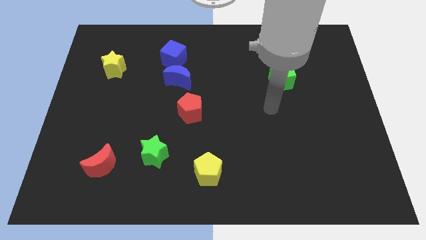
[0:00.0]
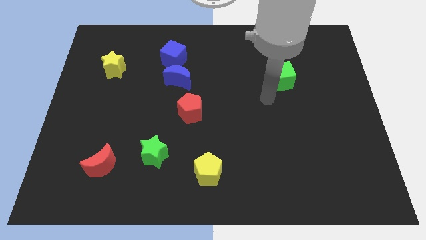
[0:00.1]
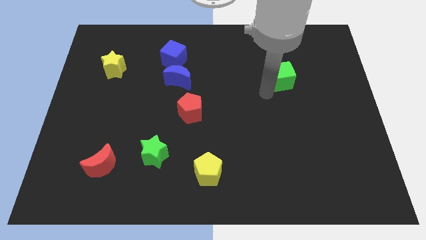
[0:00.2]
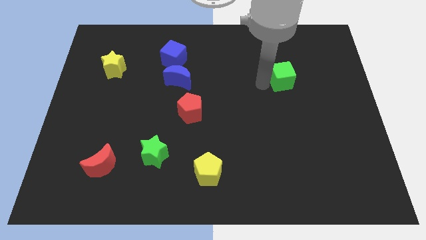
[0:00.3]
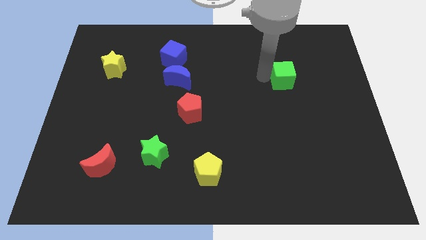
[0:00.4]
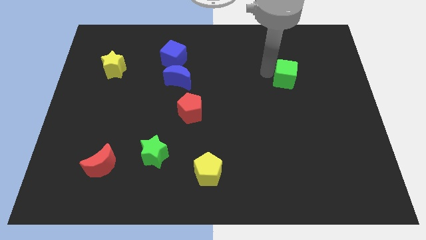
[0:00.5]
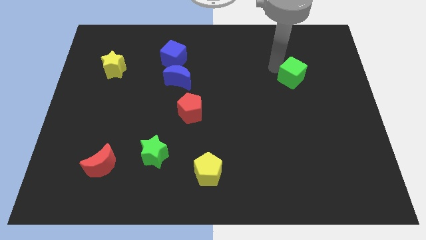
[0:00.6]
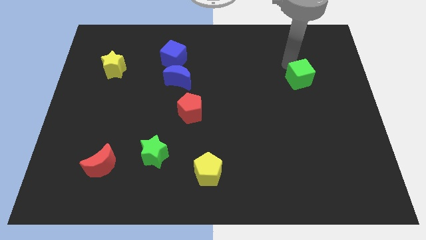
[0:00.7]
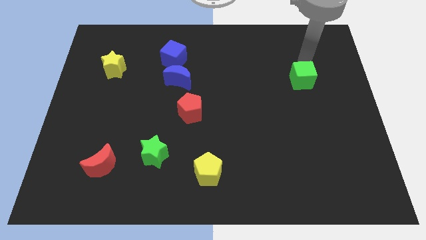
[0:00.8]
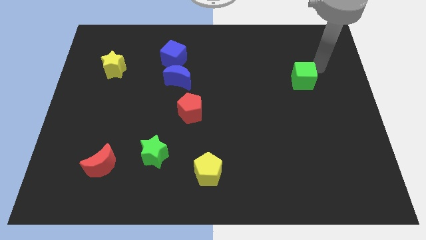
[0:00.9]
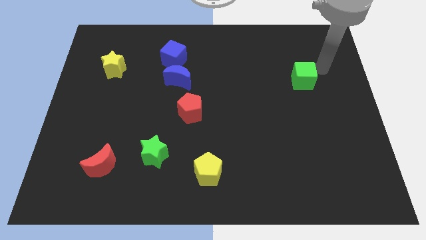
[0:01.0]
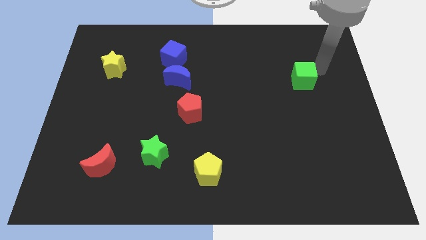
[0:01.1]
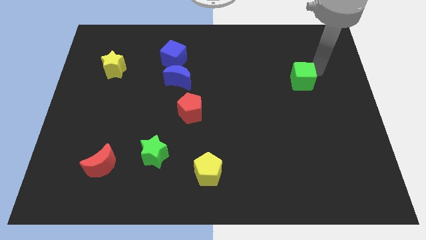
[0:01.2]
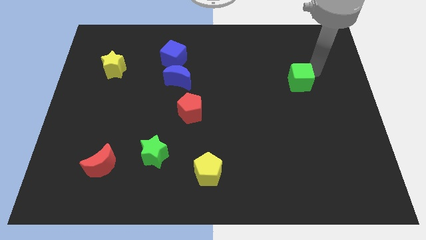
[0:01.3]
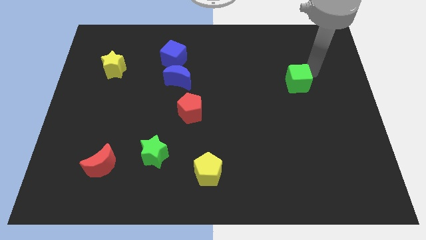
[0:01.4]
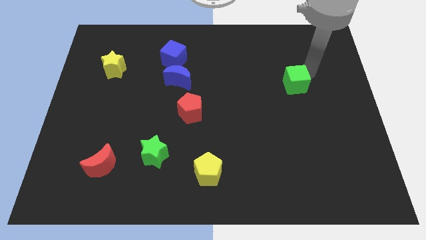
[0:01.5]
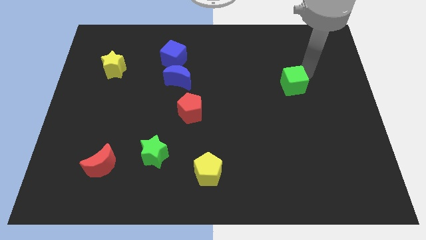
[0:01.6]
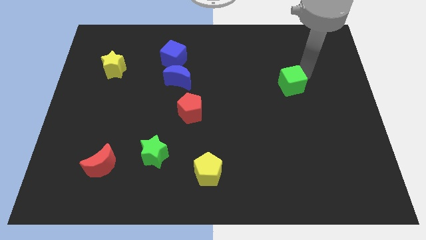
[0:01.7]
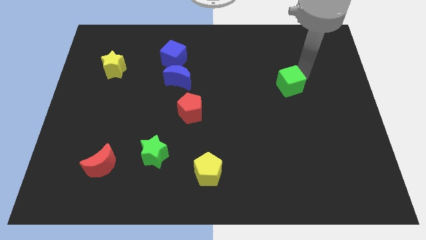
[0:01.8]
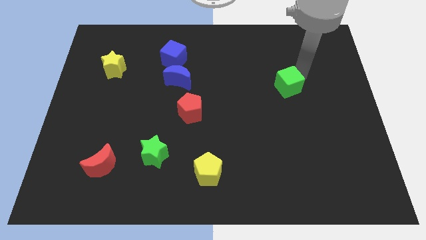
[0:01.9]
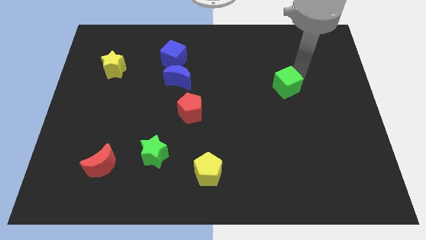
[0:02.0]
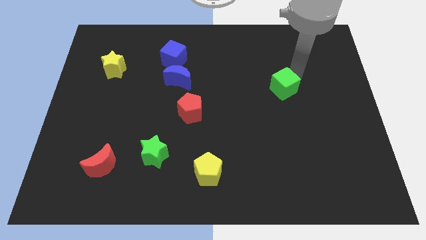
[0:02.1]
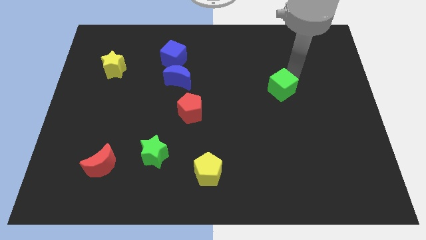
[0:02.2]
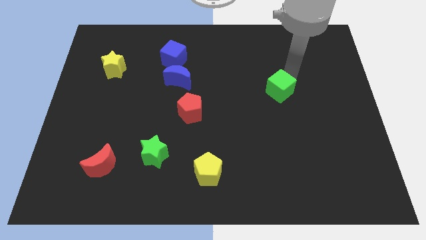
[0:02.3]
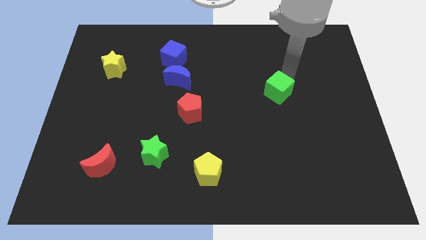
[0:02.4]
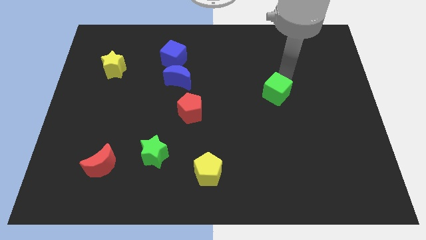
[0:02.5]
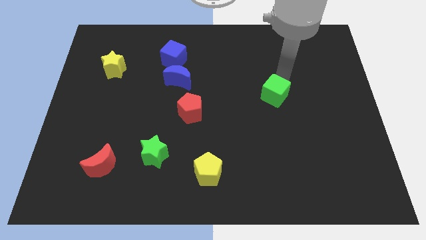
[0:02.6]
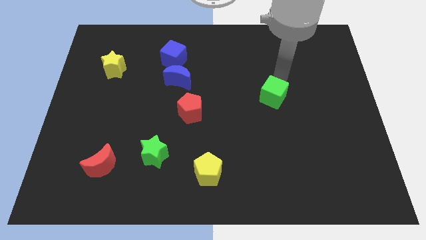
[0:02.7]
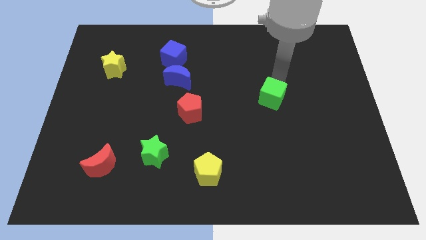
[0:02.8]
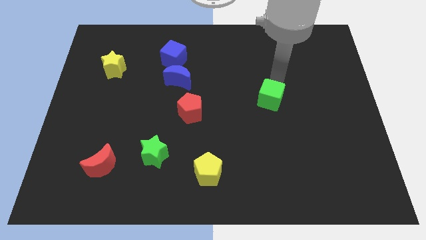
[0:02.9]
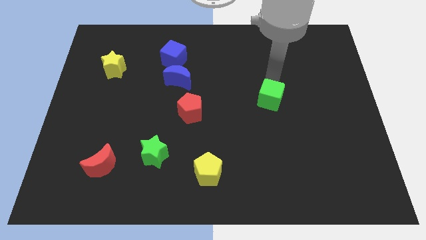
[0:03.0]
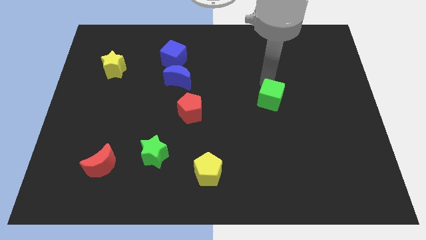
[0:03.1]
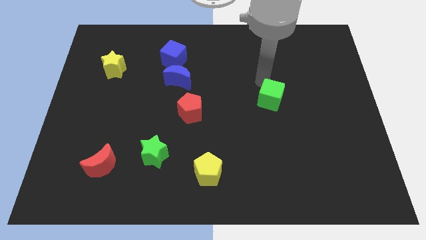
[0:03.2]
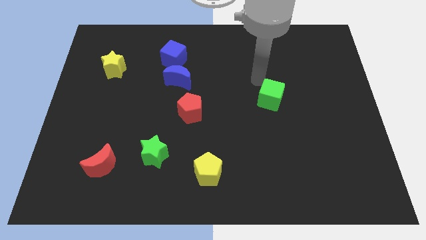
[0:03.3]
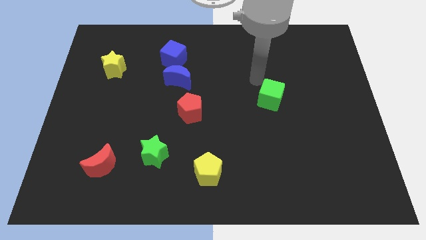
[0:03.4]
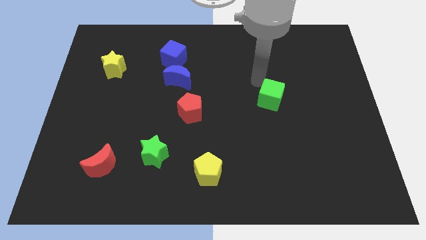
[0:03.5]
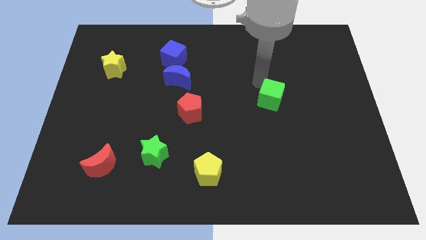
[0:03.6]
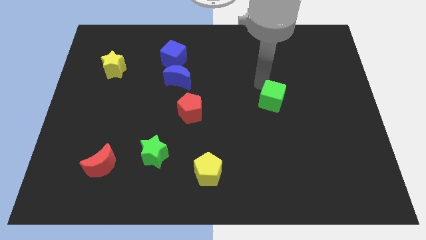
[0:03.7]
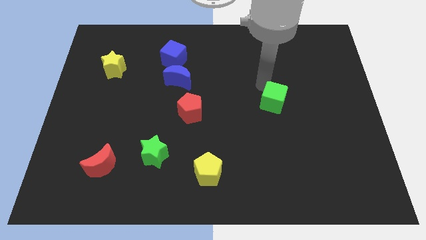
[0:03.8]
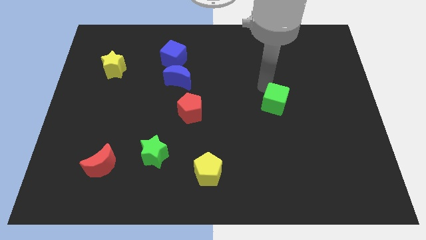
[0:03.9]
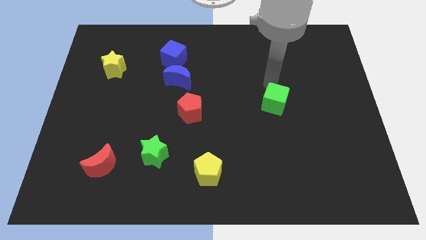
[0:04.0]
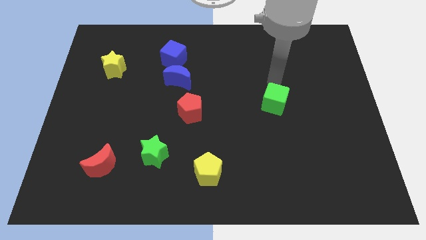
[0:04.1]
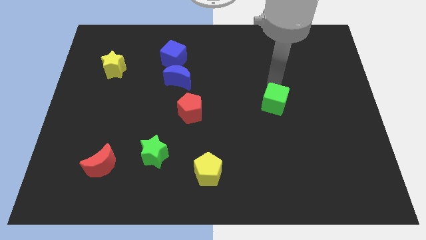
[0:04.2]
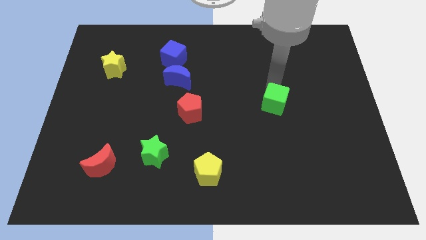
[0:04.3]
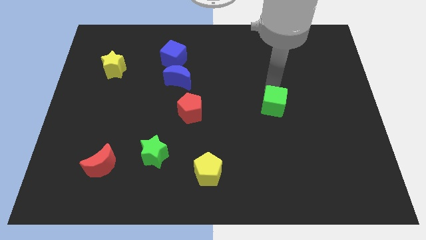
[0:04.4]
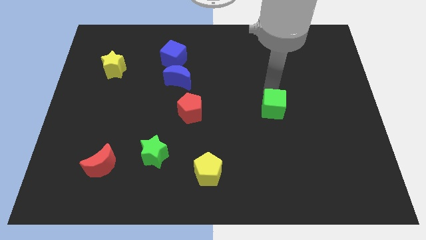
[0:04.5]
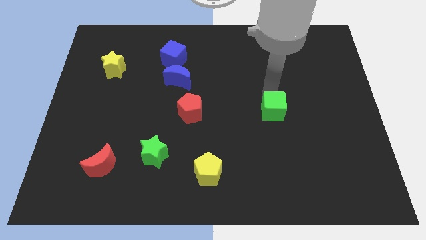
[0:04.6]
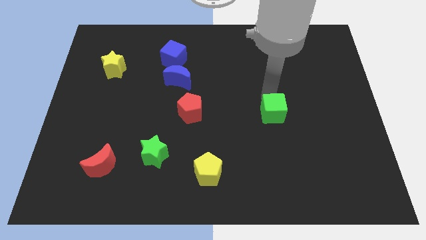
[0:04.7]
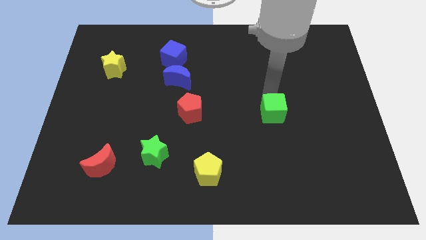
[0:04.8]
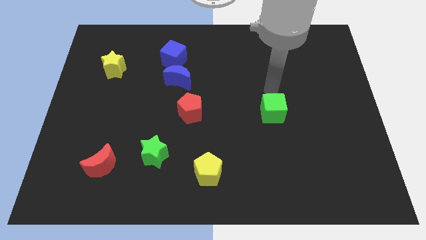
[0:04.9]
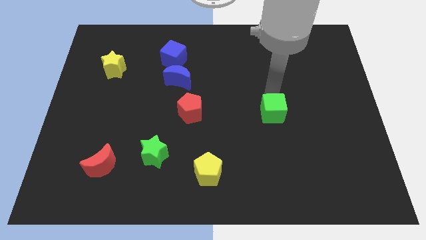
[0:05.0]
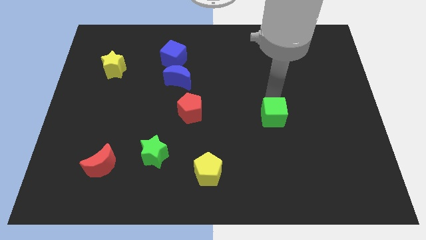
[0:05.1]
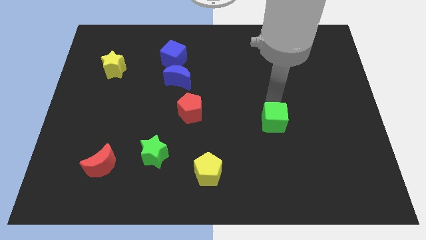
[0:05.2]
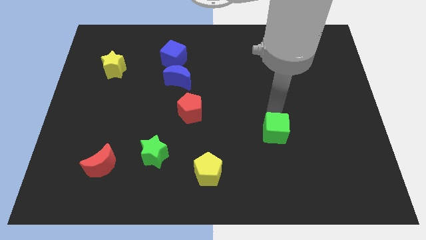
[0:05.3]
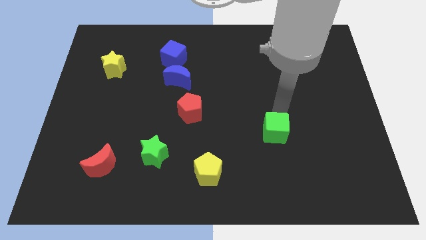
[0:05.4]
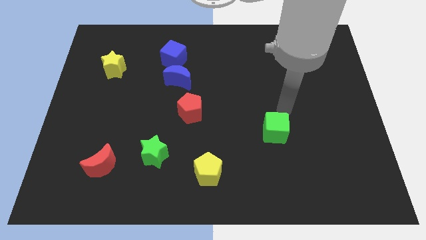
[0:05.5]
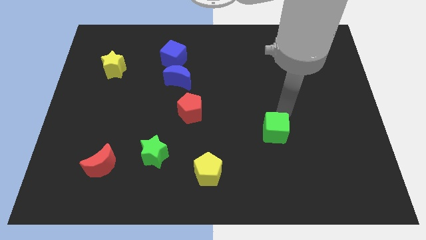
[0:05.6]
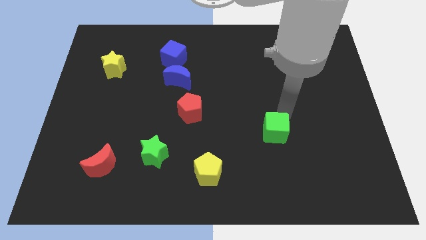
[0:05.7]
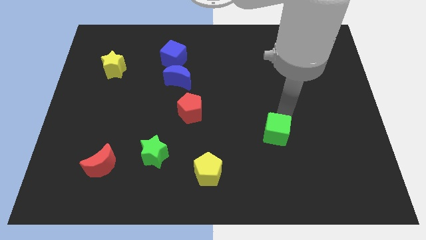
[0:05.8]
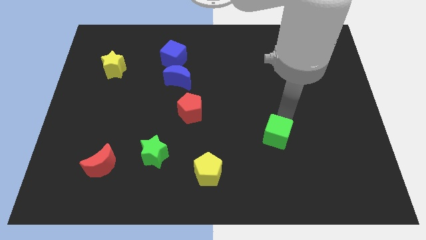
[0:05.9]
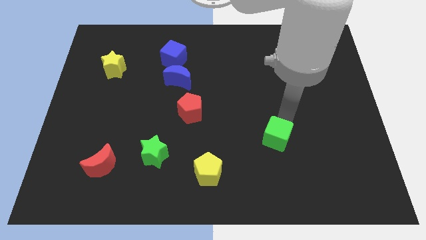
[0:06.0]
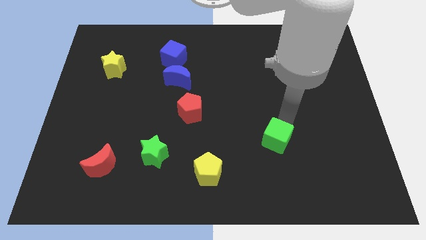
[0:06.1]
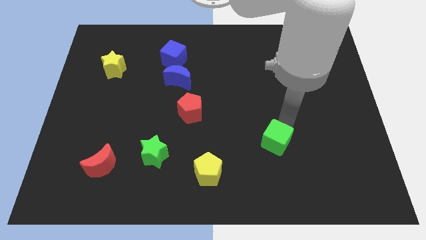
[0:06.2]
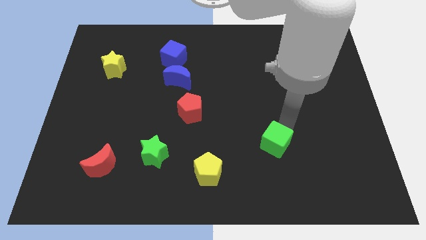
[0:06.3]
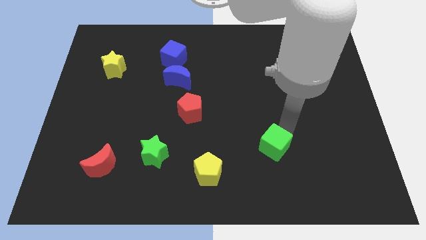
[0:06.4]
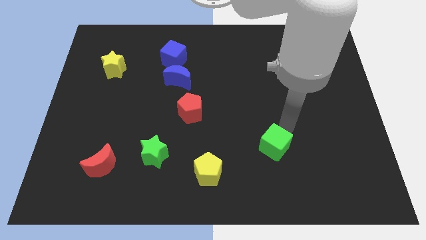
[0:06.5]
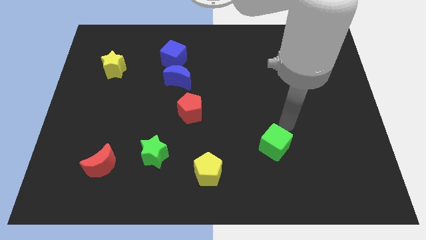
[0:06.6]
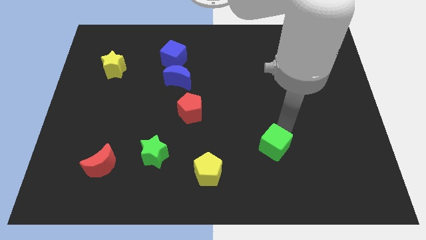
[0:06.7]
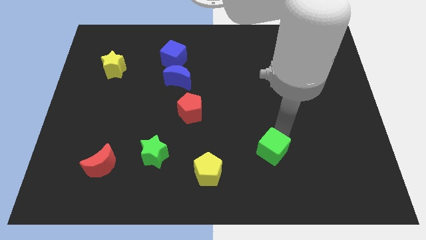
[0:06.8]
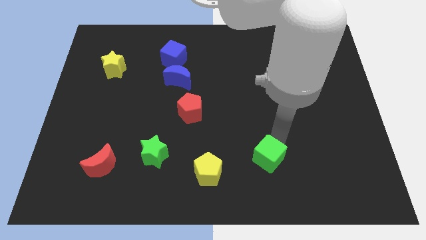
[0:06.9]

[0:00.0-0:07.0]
push the green cube right of the yellow pentagon
